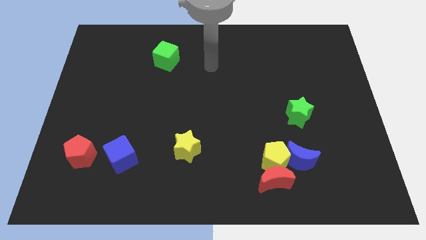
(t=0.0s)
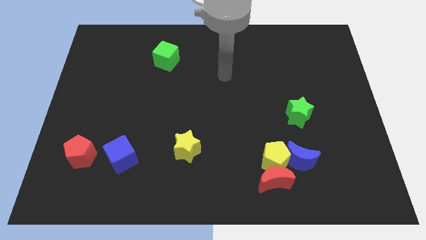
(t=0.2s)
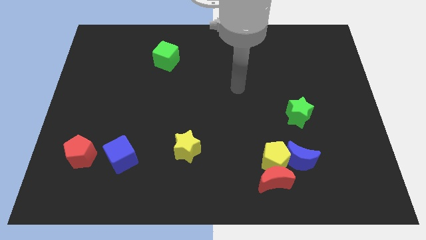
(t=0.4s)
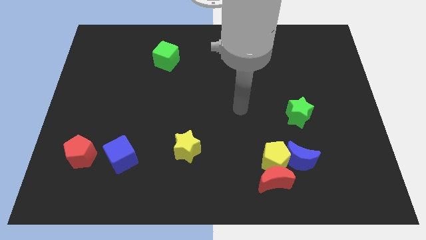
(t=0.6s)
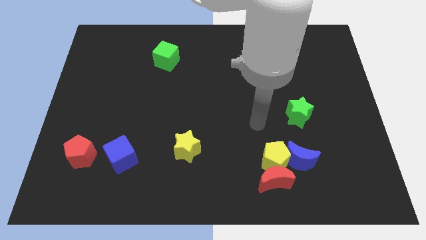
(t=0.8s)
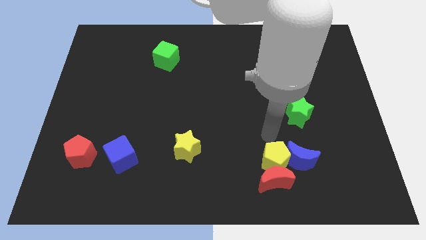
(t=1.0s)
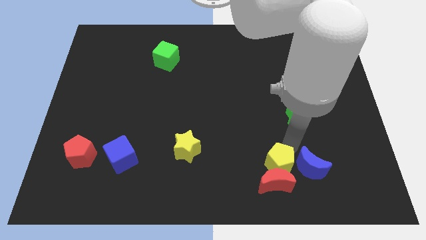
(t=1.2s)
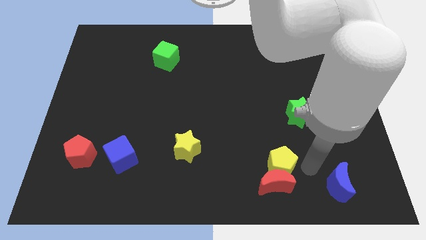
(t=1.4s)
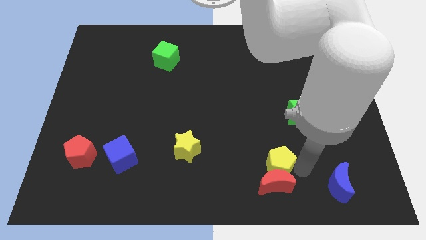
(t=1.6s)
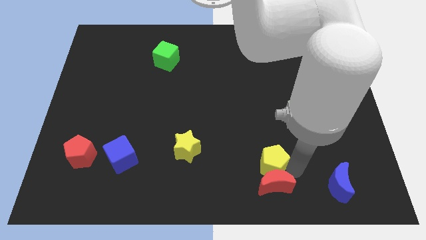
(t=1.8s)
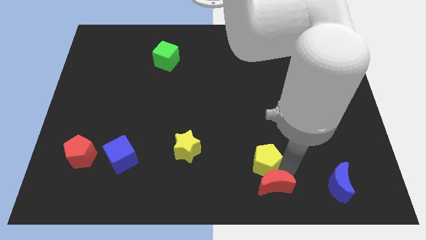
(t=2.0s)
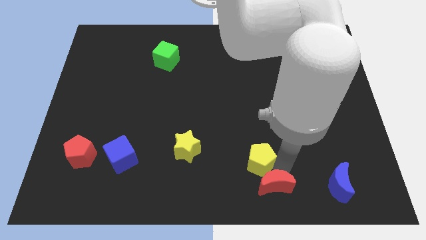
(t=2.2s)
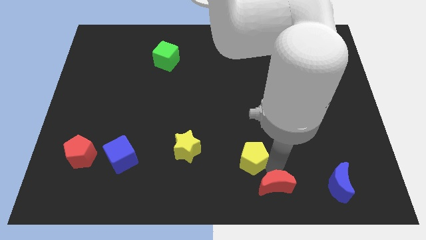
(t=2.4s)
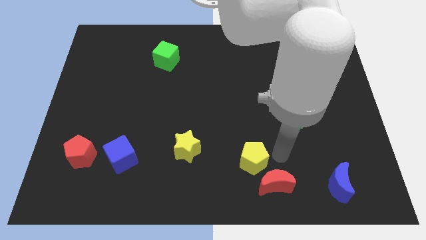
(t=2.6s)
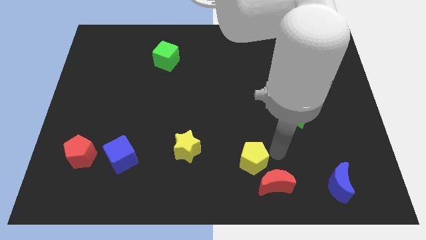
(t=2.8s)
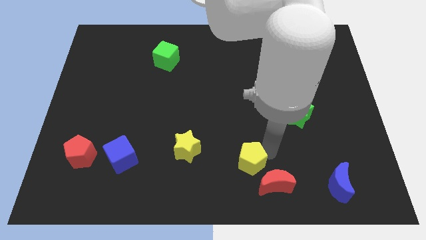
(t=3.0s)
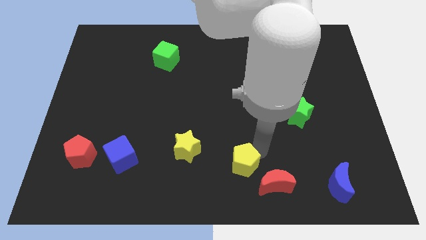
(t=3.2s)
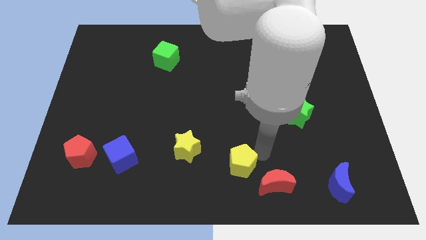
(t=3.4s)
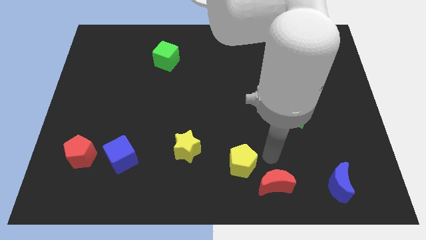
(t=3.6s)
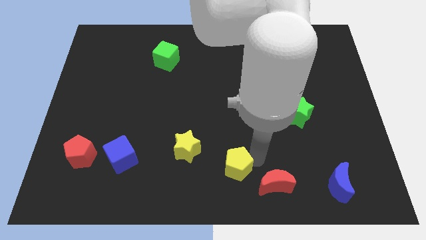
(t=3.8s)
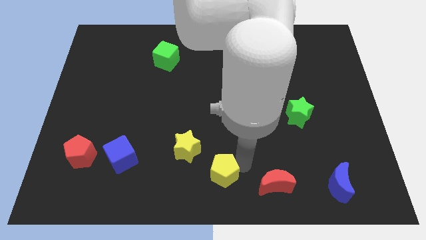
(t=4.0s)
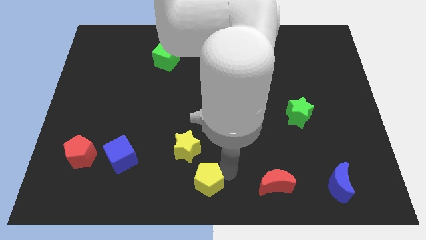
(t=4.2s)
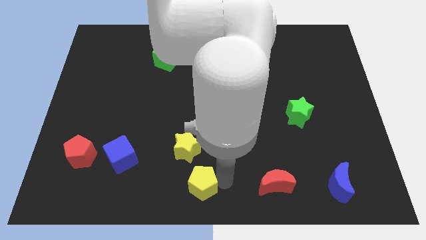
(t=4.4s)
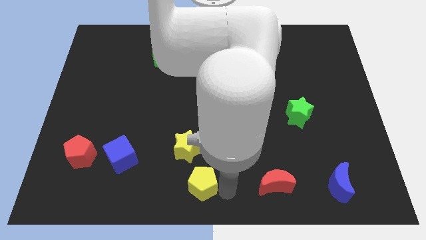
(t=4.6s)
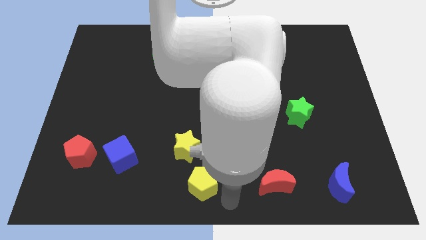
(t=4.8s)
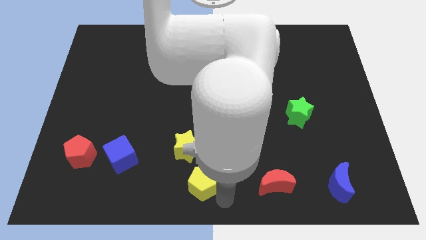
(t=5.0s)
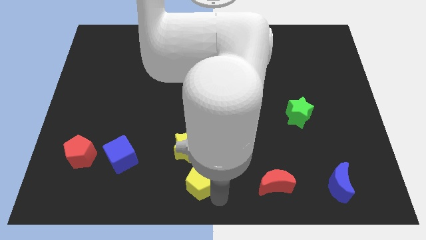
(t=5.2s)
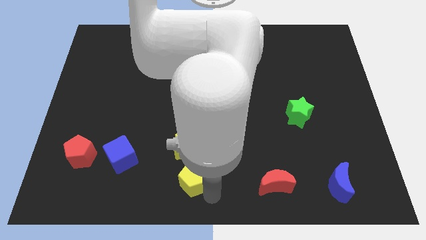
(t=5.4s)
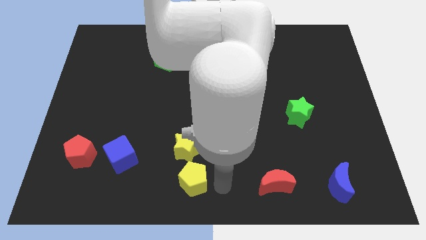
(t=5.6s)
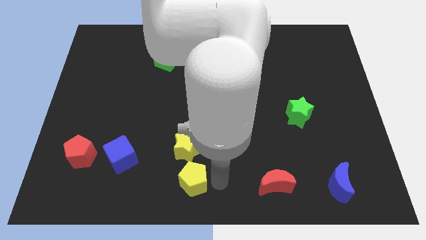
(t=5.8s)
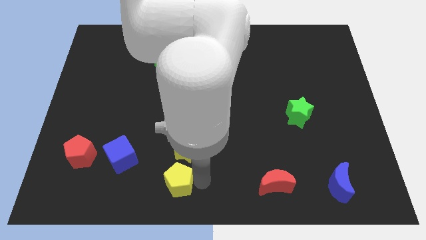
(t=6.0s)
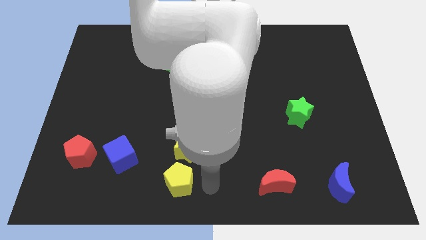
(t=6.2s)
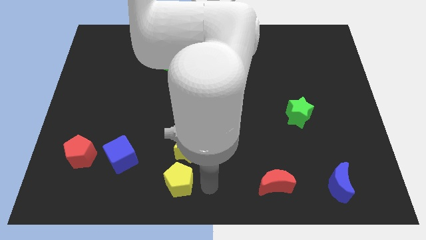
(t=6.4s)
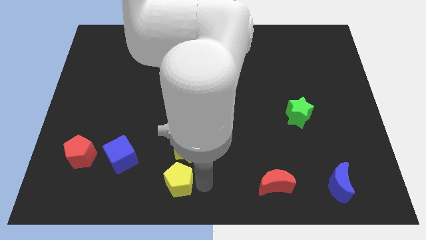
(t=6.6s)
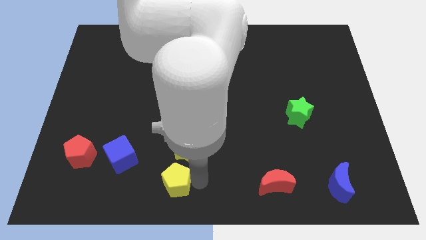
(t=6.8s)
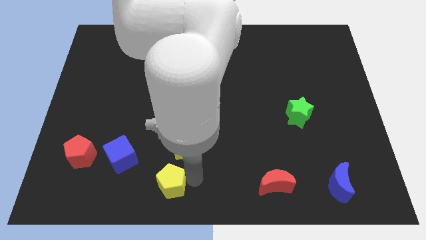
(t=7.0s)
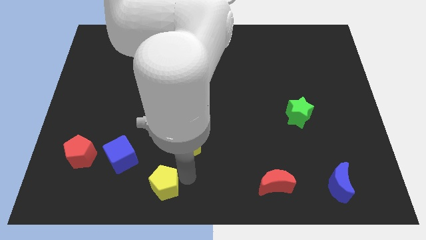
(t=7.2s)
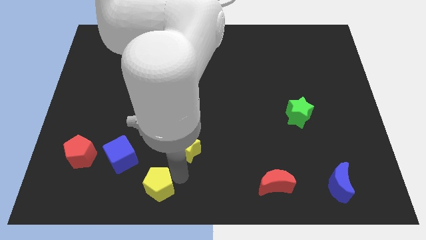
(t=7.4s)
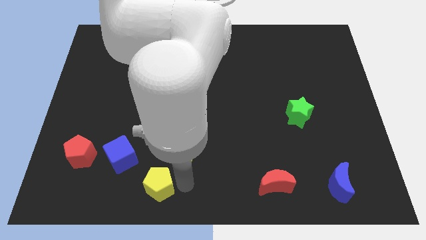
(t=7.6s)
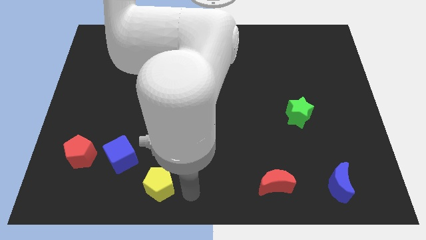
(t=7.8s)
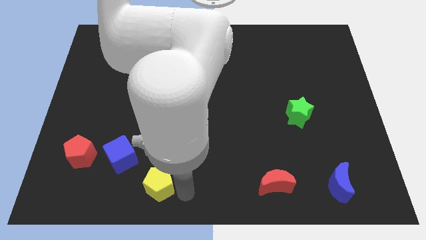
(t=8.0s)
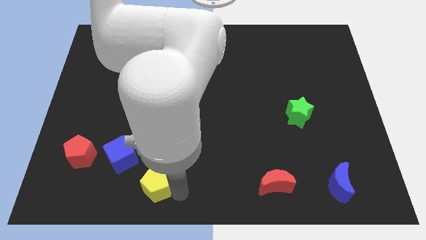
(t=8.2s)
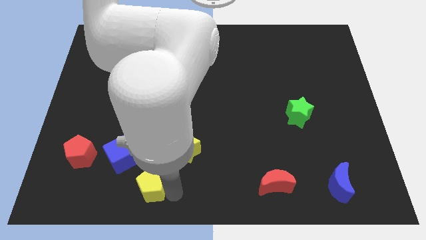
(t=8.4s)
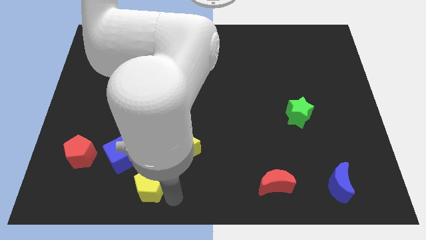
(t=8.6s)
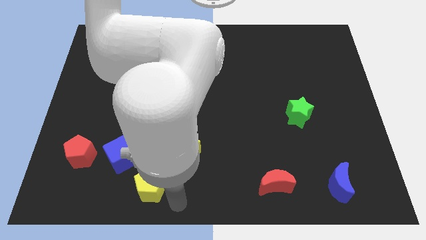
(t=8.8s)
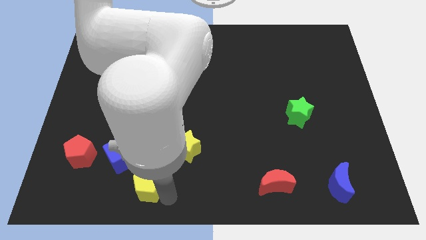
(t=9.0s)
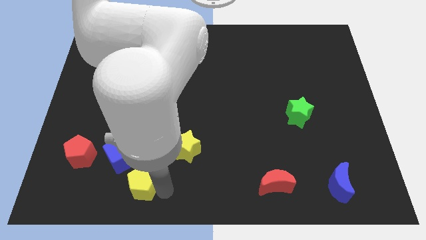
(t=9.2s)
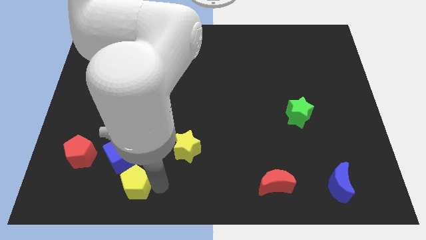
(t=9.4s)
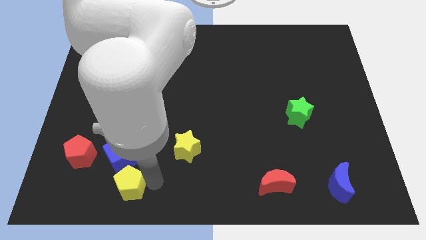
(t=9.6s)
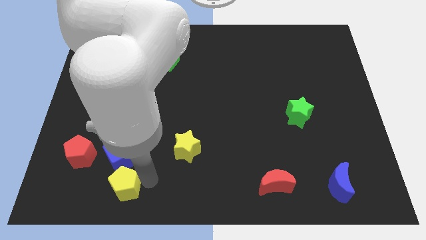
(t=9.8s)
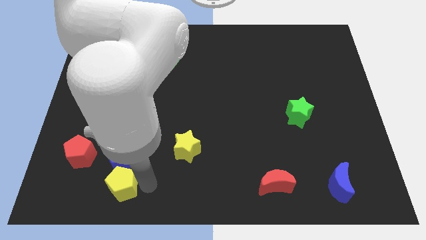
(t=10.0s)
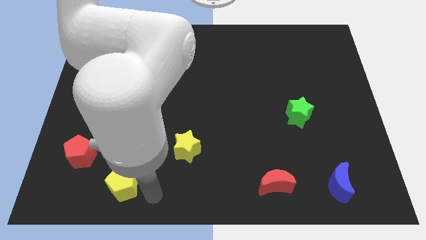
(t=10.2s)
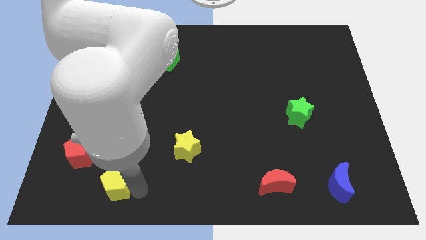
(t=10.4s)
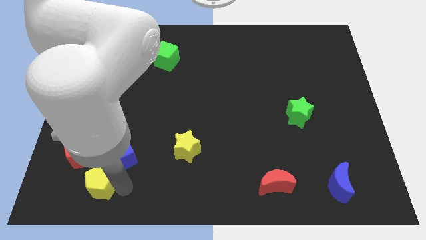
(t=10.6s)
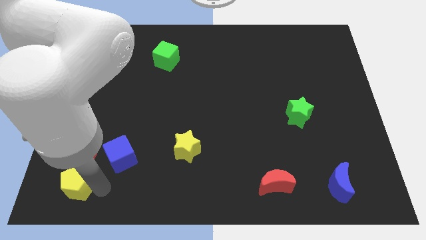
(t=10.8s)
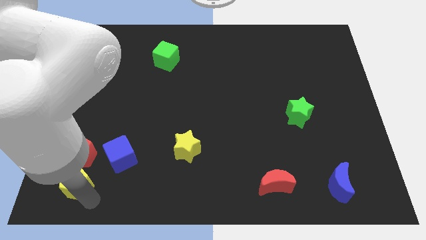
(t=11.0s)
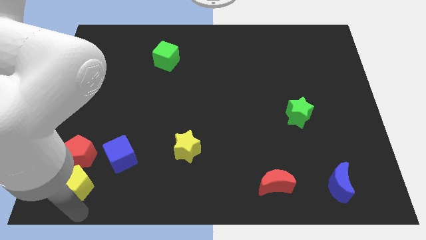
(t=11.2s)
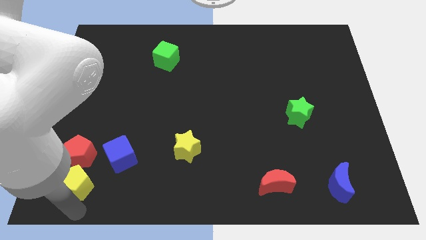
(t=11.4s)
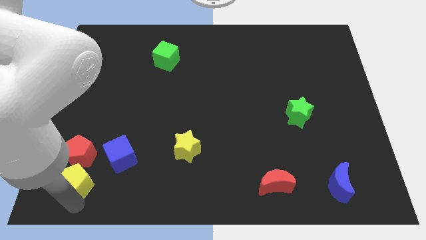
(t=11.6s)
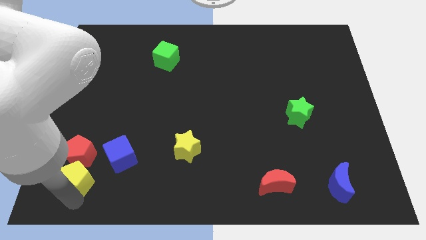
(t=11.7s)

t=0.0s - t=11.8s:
slide the yellow pentagon towards the red pentagon
